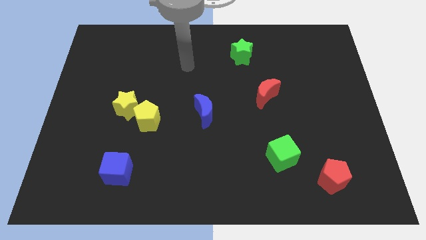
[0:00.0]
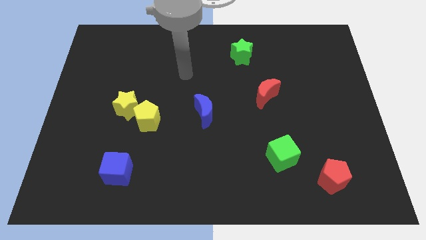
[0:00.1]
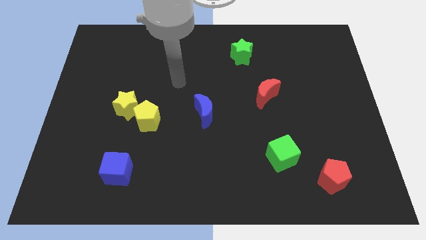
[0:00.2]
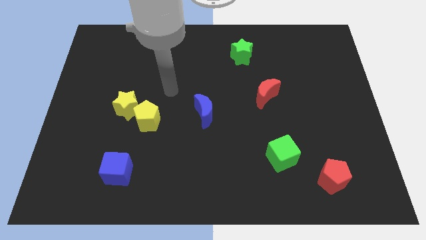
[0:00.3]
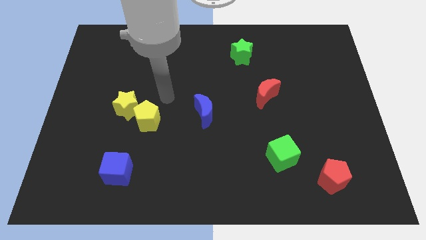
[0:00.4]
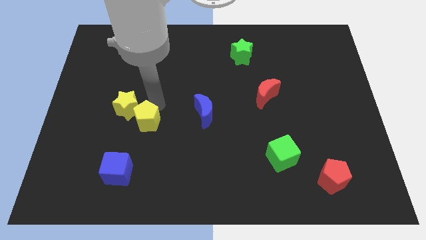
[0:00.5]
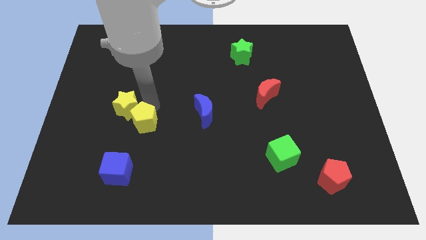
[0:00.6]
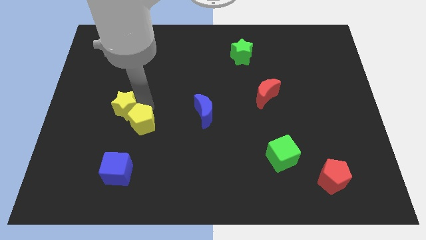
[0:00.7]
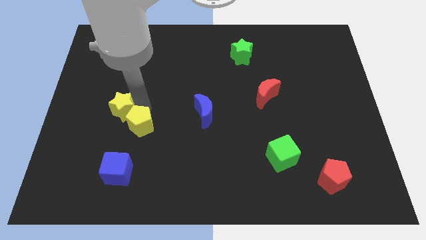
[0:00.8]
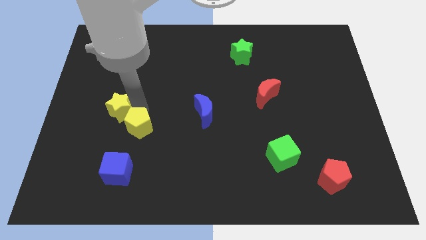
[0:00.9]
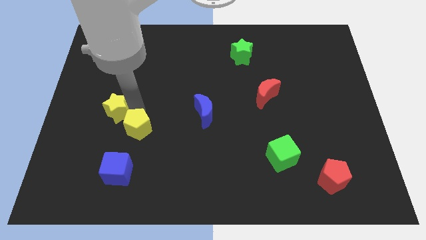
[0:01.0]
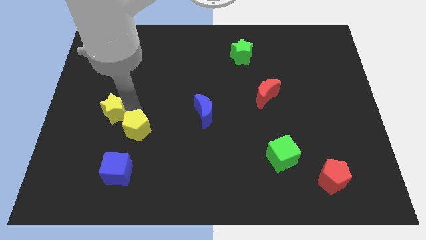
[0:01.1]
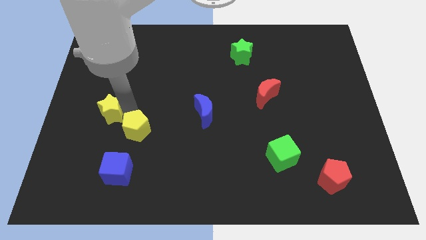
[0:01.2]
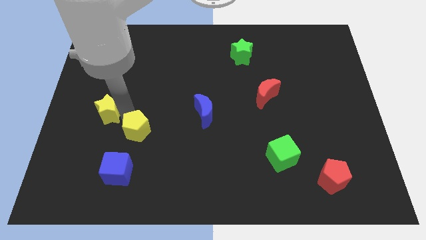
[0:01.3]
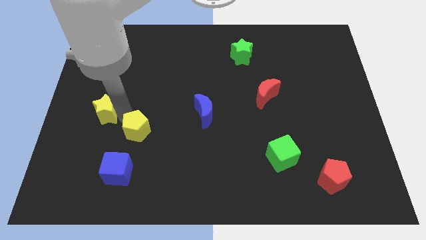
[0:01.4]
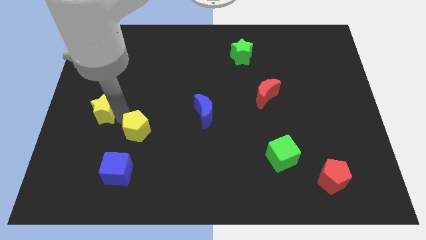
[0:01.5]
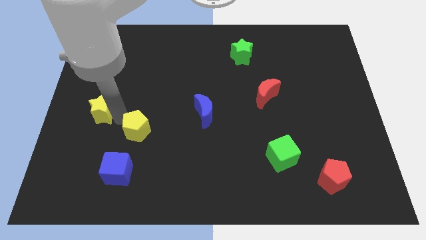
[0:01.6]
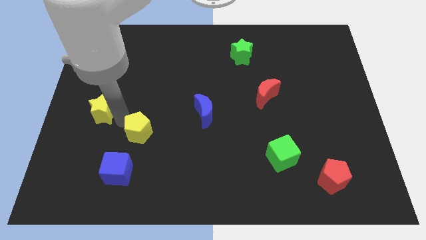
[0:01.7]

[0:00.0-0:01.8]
move the yellow star away from the yellow pentagon

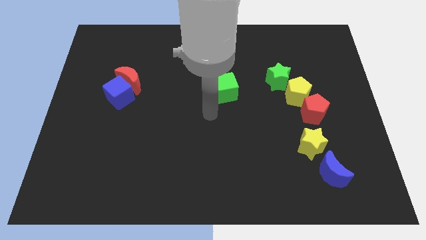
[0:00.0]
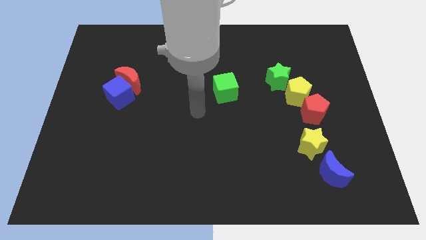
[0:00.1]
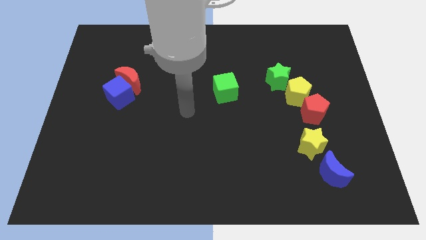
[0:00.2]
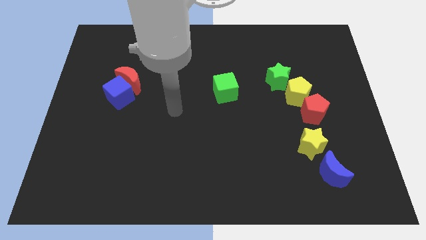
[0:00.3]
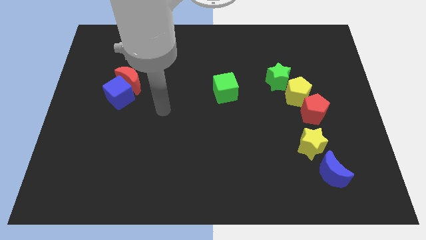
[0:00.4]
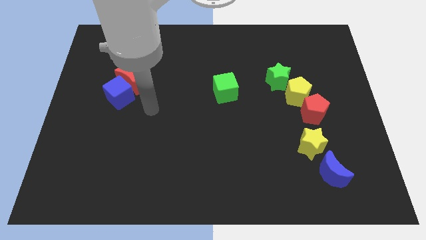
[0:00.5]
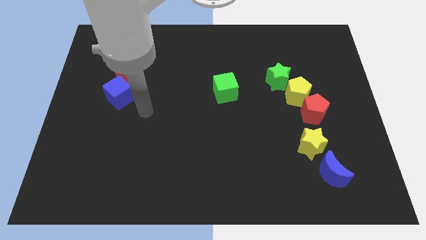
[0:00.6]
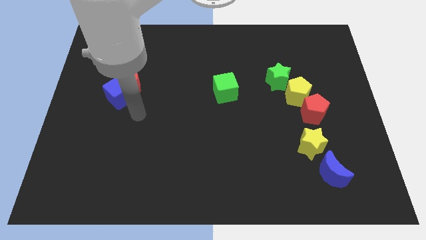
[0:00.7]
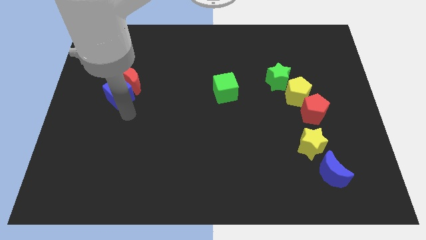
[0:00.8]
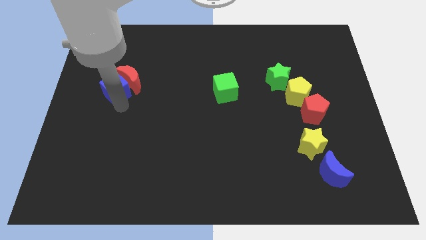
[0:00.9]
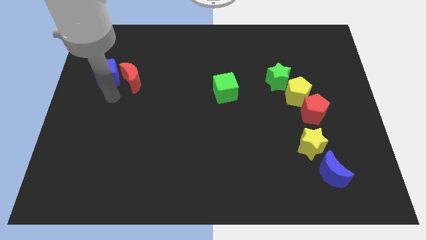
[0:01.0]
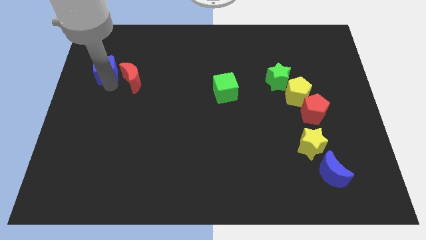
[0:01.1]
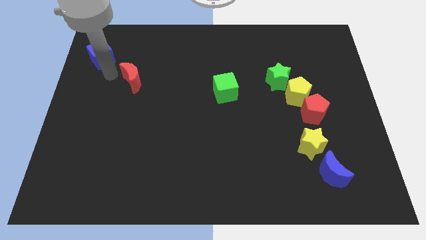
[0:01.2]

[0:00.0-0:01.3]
pull the red moon apart from the blue cube

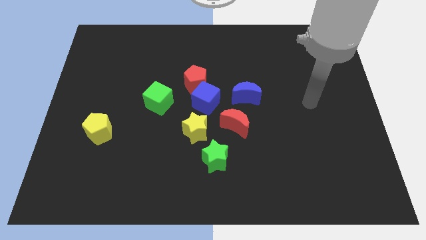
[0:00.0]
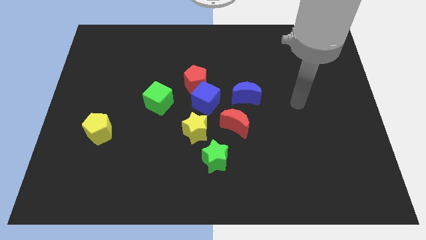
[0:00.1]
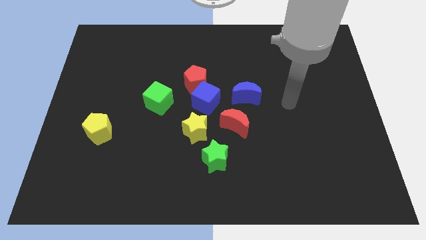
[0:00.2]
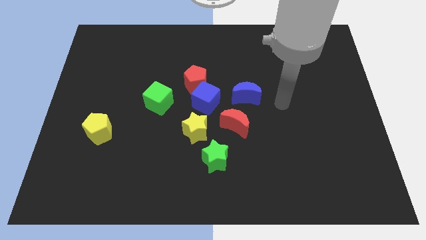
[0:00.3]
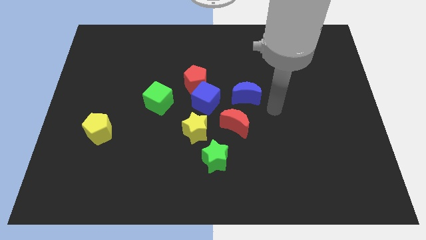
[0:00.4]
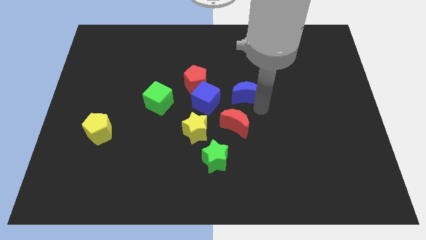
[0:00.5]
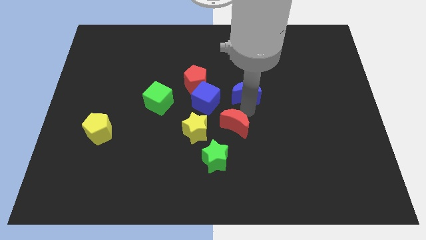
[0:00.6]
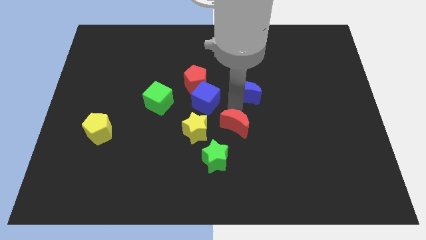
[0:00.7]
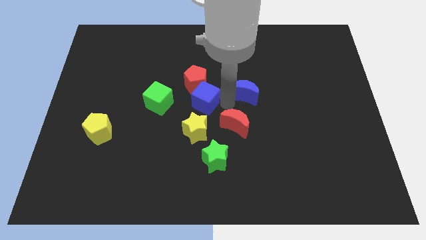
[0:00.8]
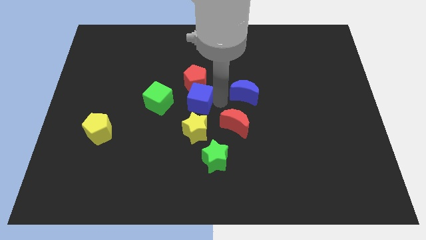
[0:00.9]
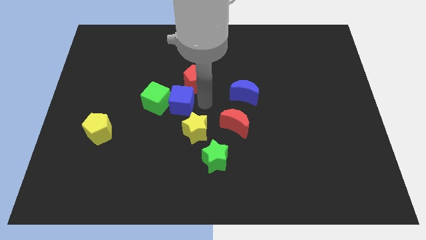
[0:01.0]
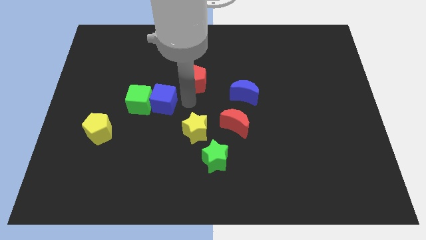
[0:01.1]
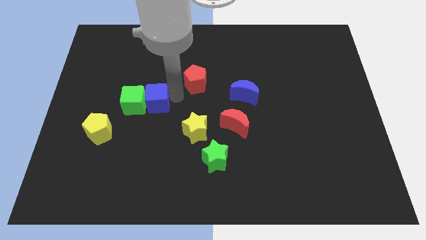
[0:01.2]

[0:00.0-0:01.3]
separate the red pentagon from the blue cube

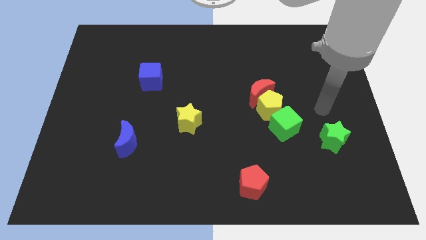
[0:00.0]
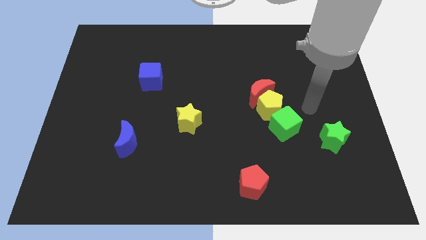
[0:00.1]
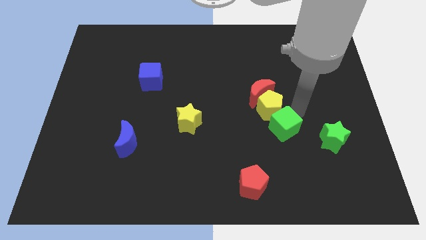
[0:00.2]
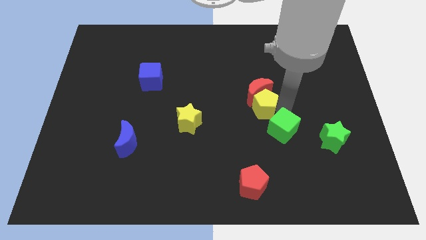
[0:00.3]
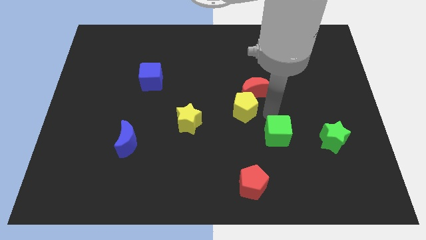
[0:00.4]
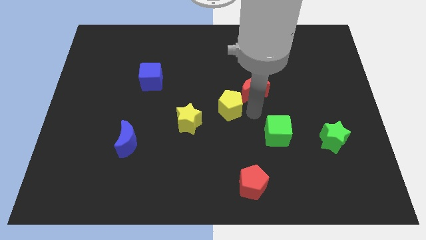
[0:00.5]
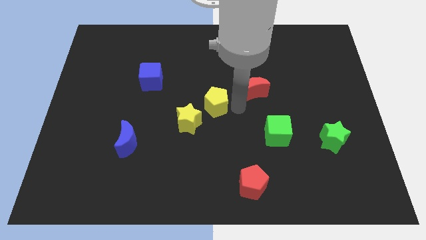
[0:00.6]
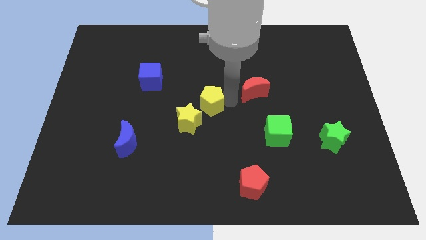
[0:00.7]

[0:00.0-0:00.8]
pull the red moon apart from the yellow pentagon

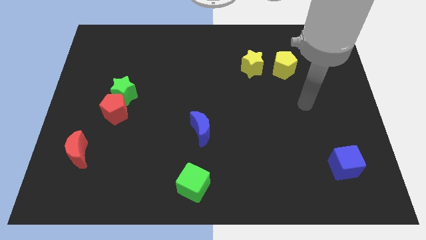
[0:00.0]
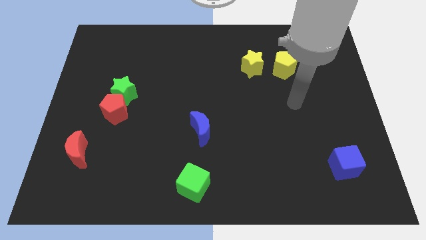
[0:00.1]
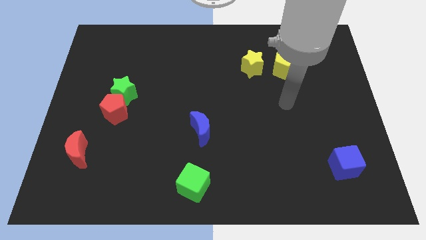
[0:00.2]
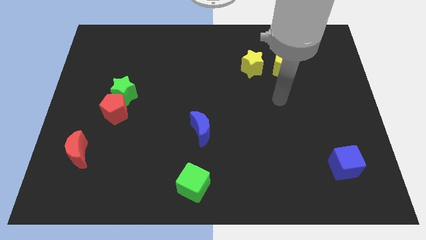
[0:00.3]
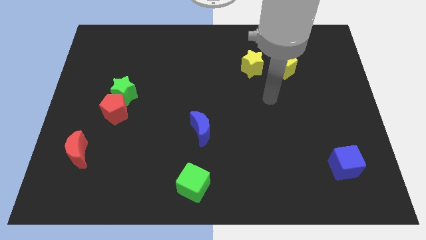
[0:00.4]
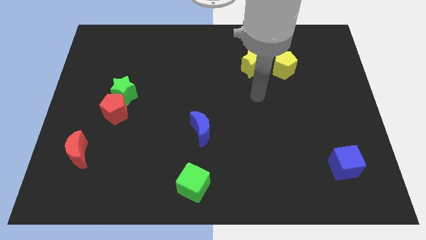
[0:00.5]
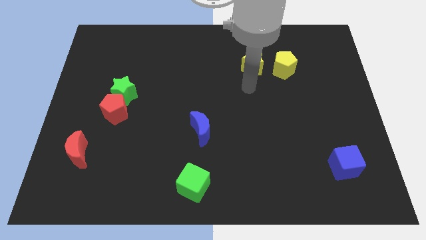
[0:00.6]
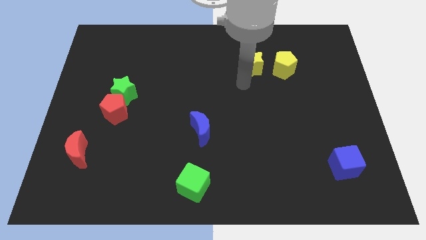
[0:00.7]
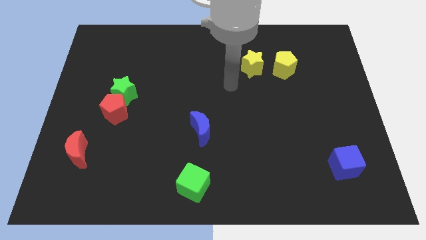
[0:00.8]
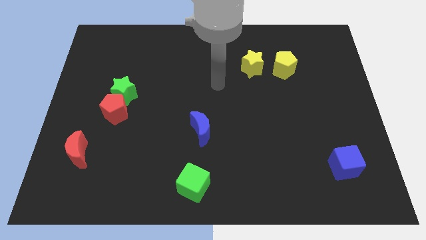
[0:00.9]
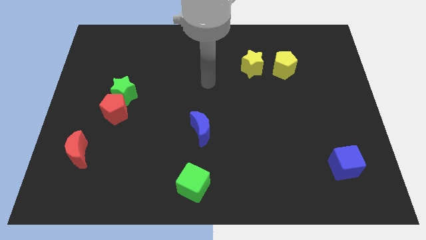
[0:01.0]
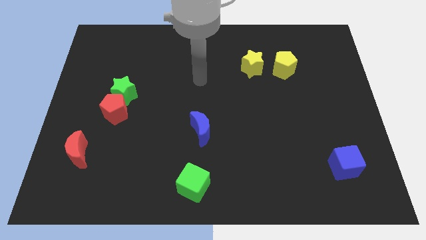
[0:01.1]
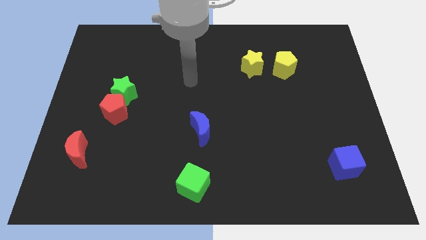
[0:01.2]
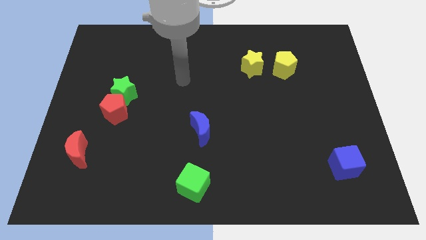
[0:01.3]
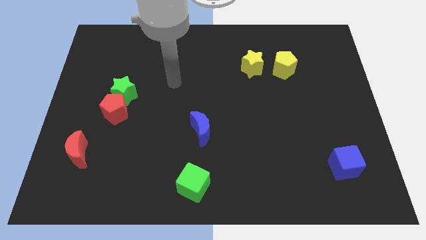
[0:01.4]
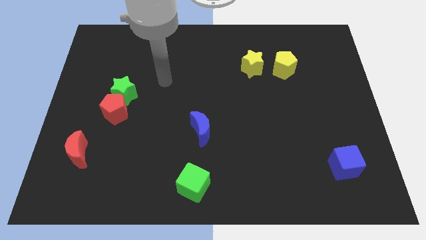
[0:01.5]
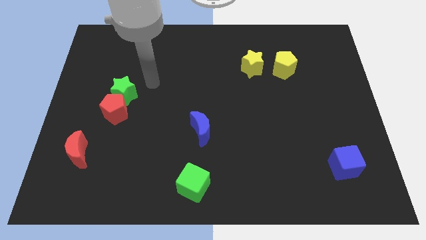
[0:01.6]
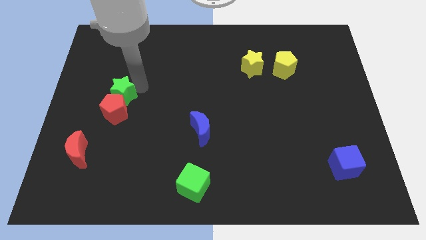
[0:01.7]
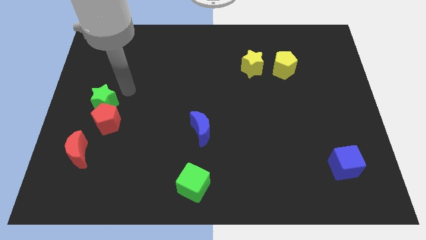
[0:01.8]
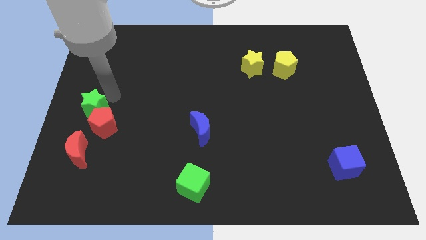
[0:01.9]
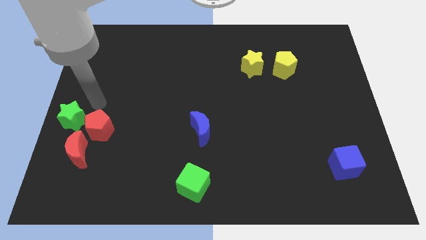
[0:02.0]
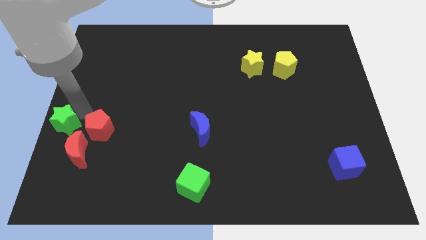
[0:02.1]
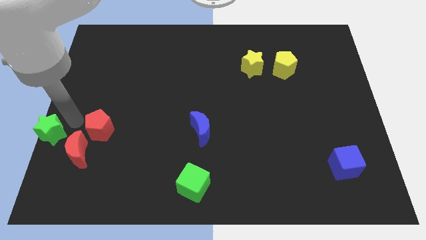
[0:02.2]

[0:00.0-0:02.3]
separate the red pentagon from the green star

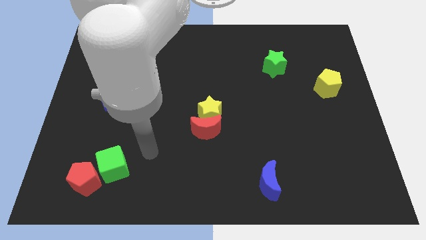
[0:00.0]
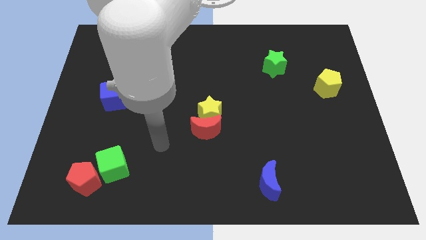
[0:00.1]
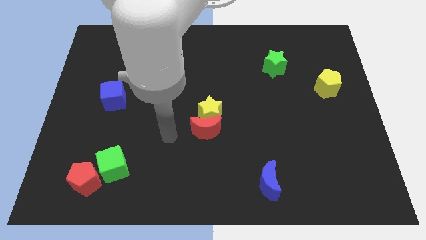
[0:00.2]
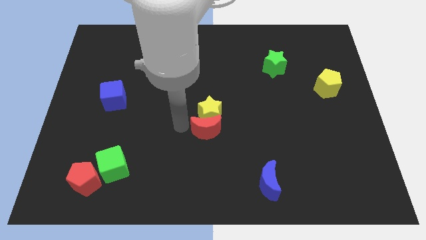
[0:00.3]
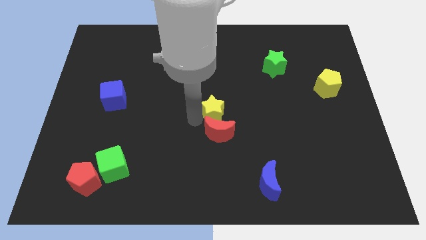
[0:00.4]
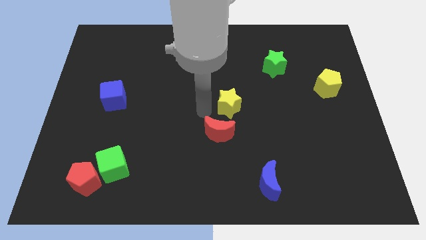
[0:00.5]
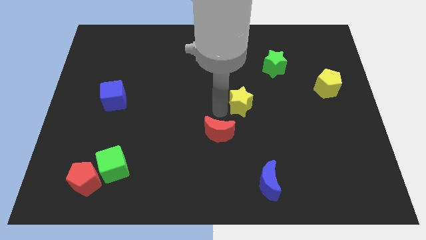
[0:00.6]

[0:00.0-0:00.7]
move the red moon away from the yellow star

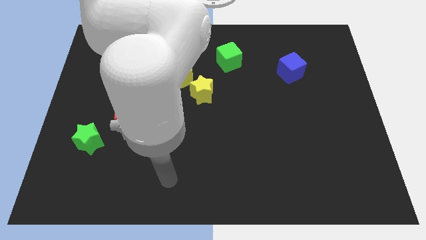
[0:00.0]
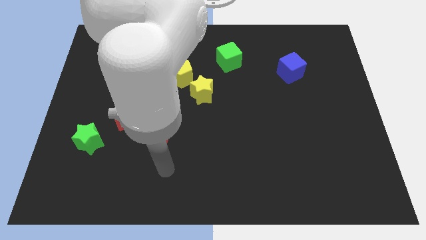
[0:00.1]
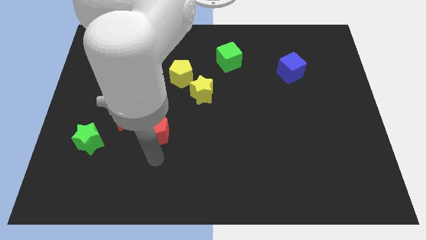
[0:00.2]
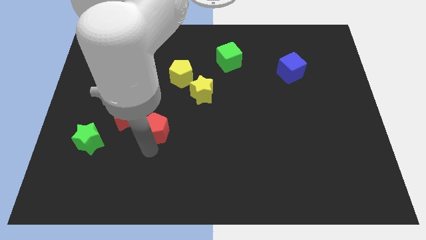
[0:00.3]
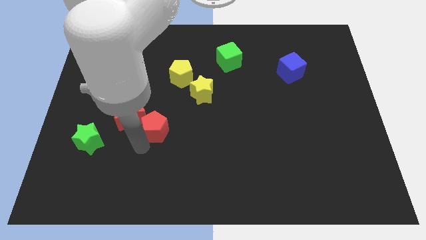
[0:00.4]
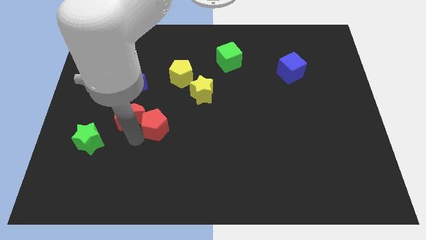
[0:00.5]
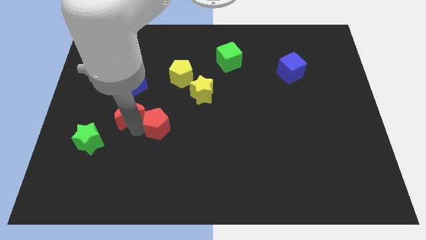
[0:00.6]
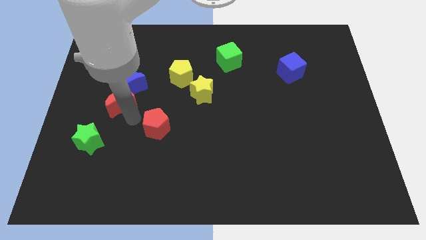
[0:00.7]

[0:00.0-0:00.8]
separate the red pentagon from the red moon

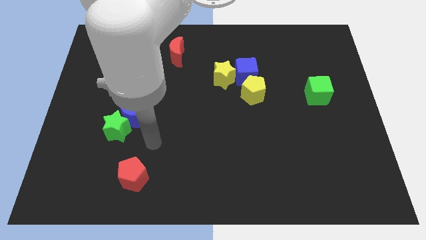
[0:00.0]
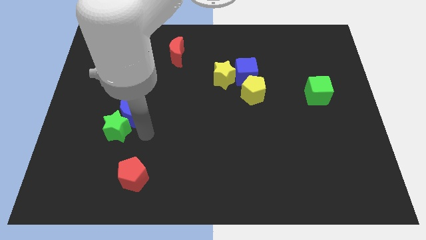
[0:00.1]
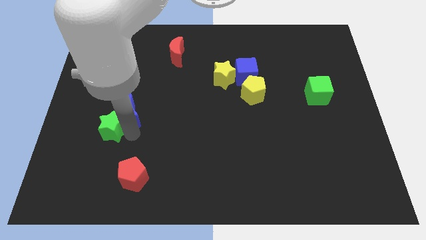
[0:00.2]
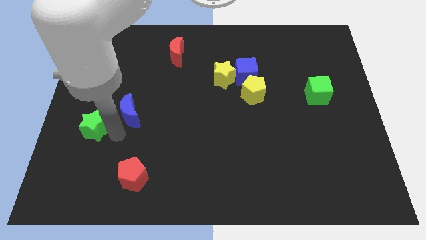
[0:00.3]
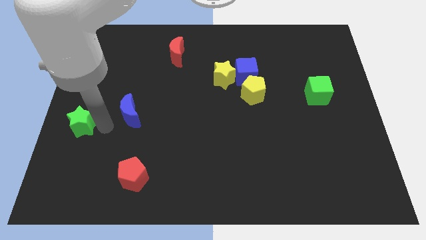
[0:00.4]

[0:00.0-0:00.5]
separate the blue moon from the green star
